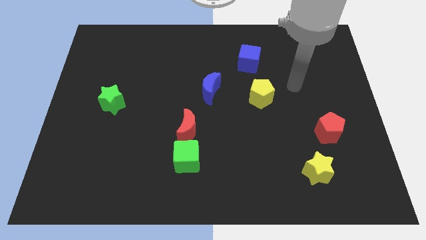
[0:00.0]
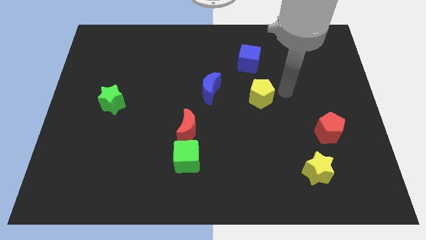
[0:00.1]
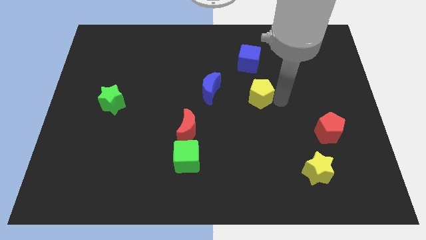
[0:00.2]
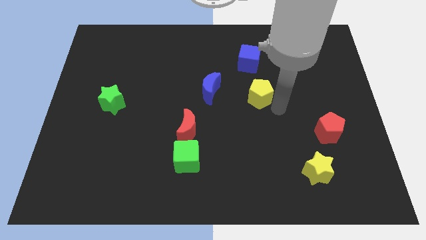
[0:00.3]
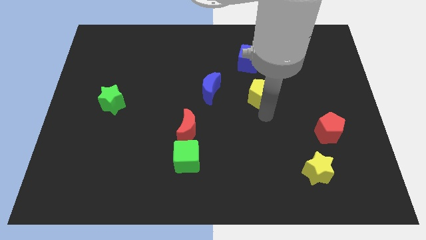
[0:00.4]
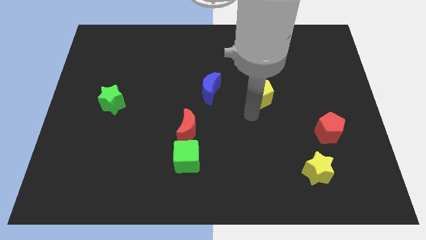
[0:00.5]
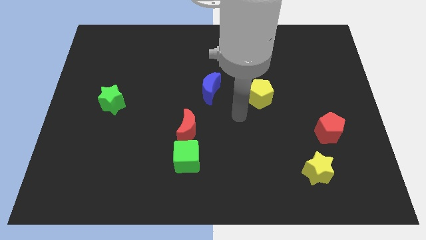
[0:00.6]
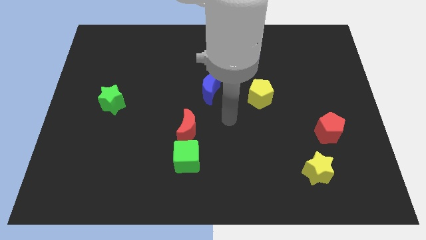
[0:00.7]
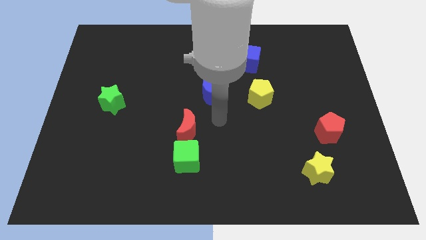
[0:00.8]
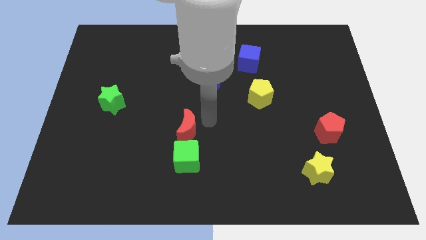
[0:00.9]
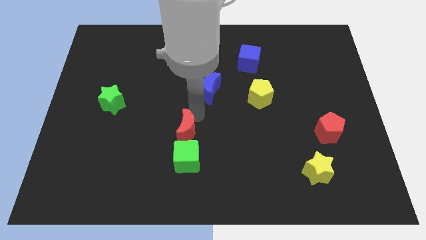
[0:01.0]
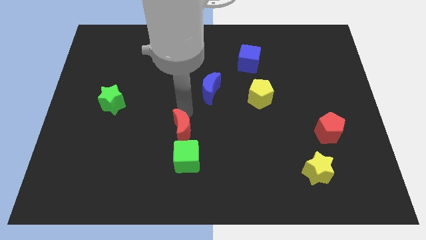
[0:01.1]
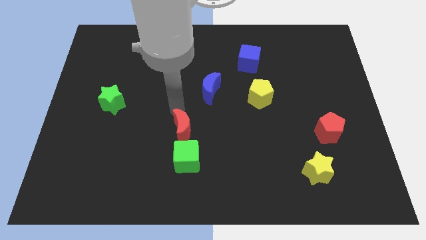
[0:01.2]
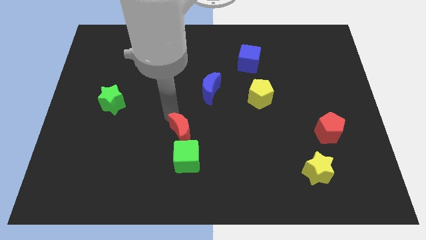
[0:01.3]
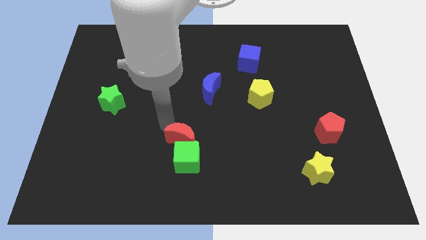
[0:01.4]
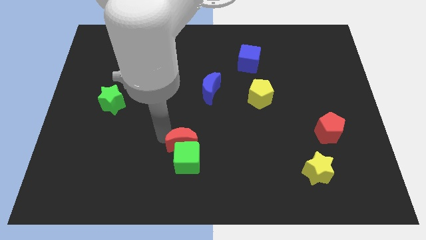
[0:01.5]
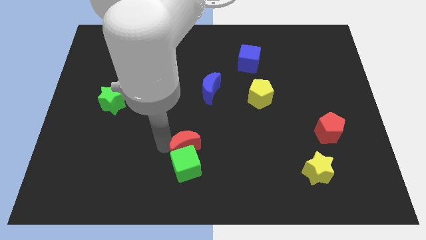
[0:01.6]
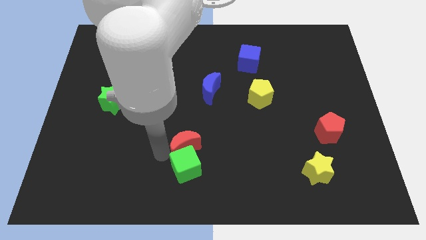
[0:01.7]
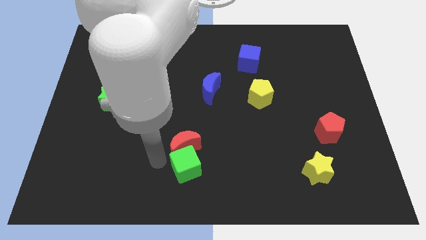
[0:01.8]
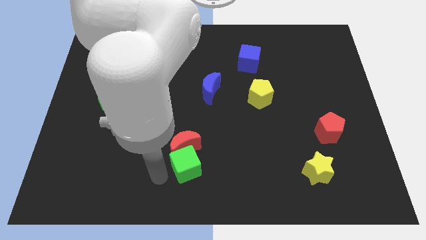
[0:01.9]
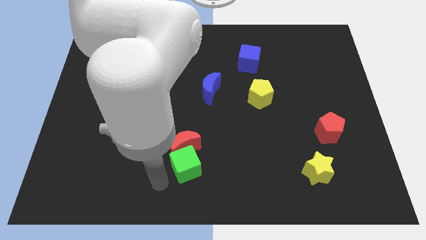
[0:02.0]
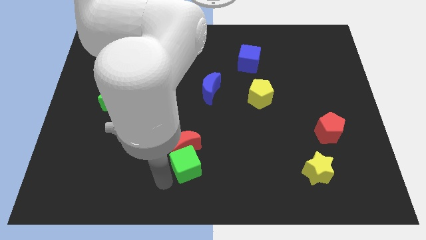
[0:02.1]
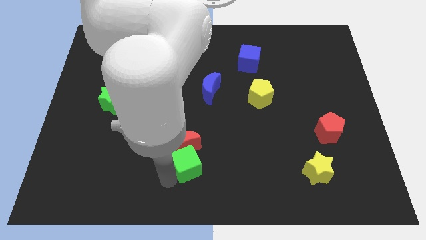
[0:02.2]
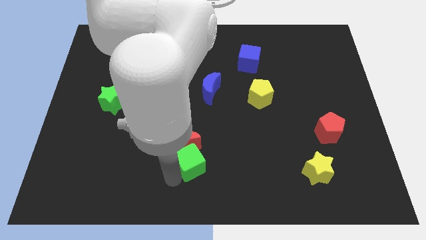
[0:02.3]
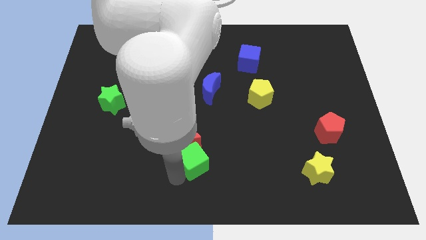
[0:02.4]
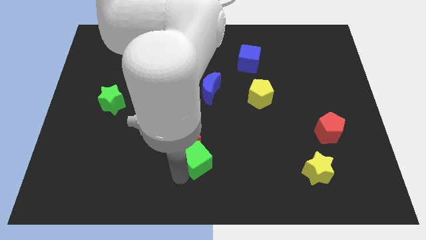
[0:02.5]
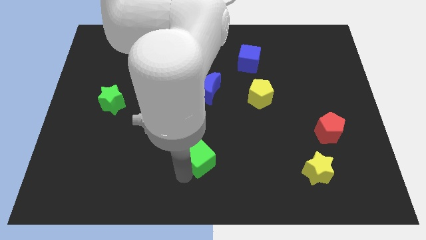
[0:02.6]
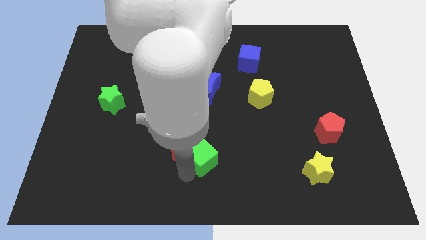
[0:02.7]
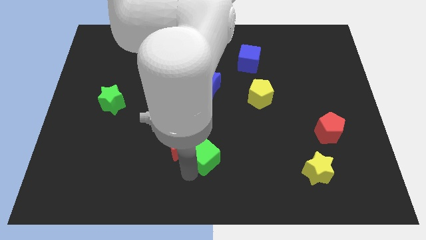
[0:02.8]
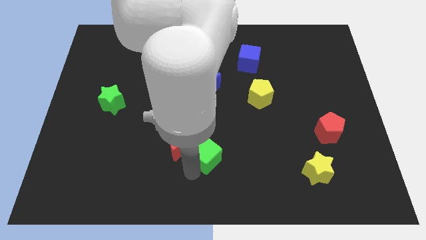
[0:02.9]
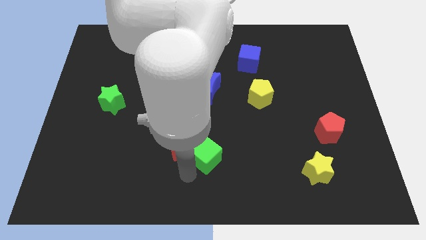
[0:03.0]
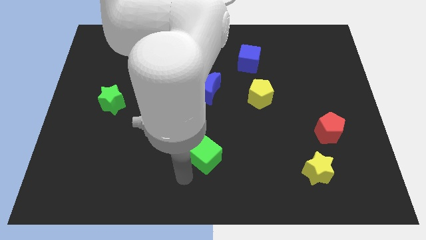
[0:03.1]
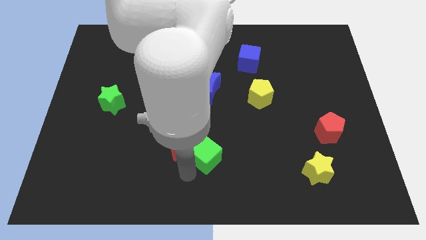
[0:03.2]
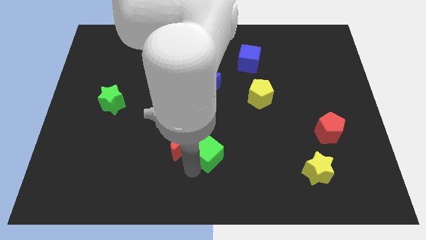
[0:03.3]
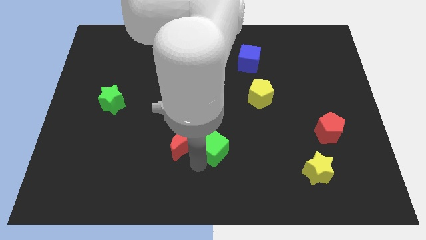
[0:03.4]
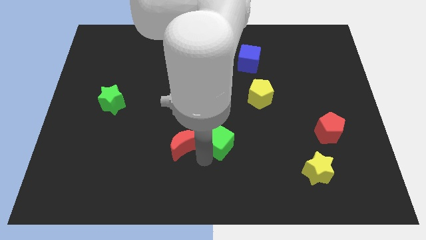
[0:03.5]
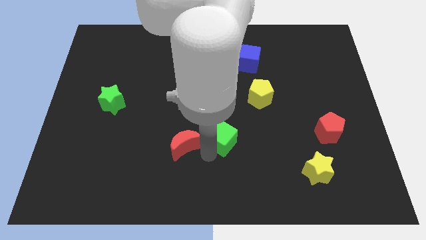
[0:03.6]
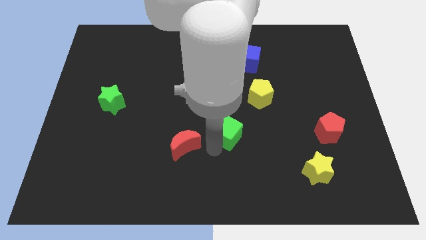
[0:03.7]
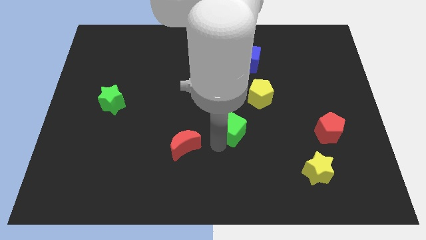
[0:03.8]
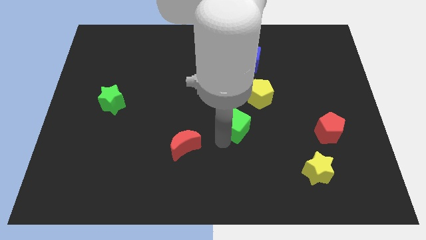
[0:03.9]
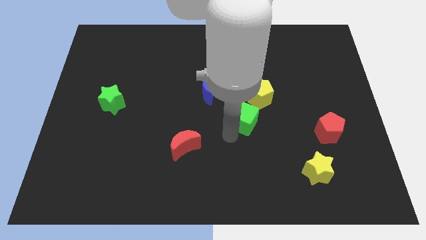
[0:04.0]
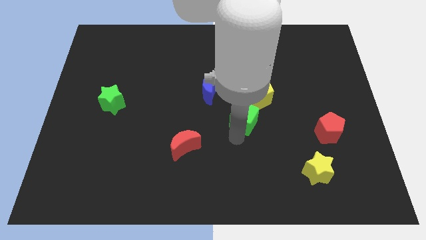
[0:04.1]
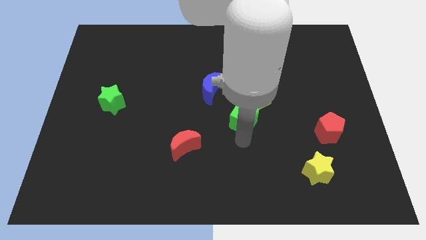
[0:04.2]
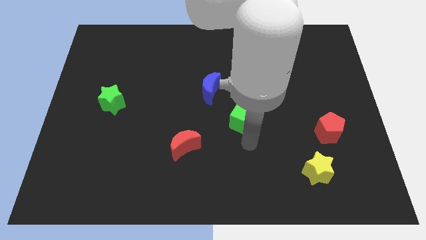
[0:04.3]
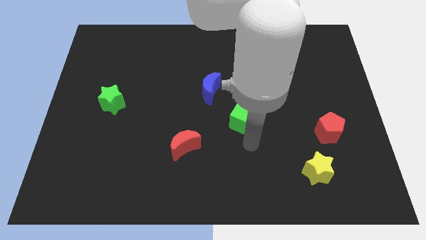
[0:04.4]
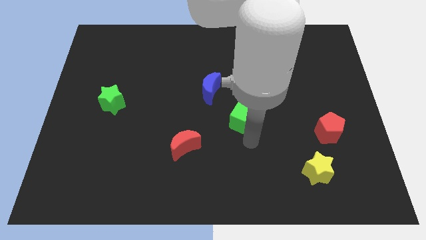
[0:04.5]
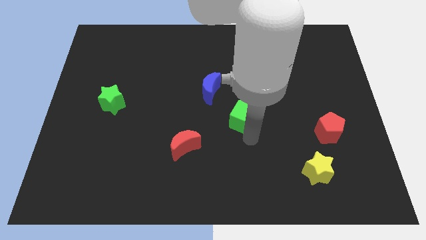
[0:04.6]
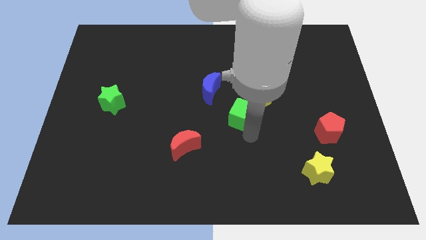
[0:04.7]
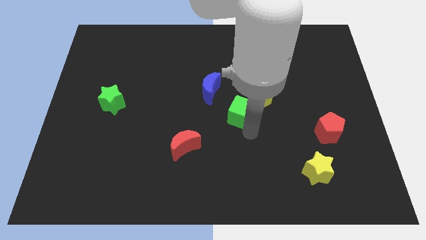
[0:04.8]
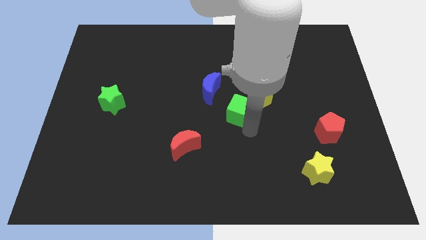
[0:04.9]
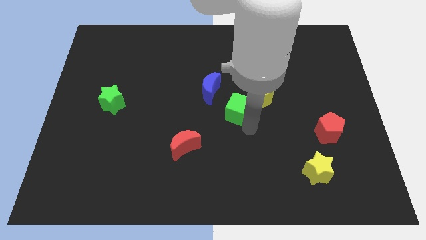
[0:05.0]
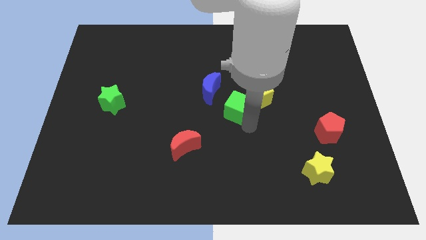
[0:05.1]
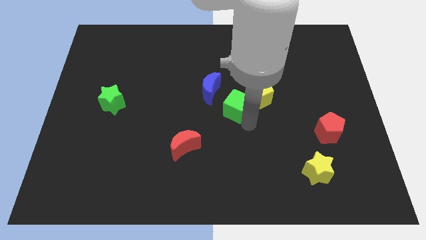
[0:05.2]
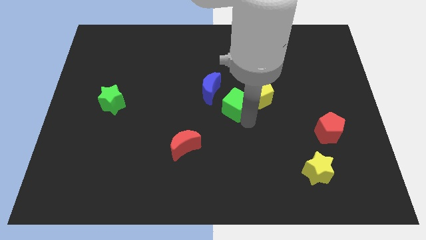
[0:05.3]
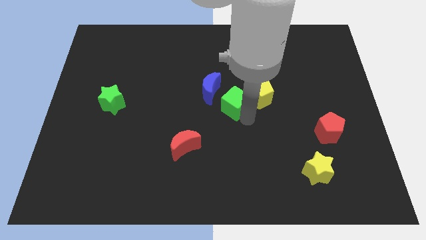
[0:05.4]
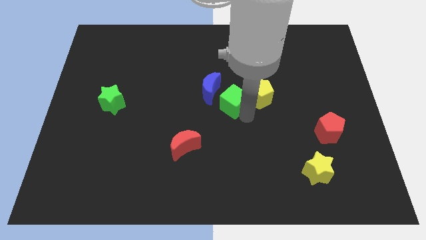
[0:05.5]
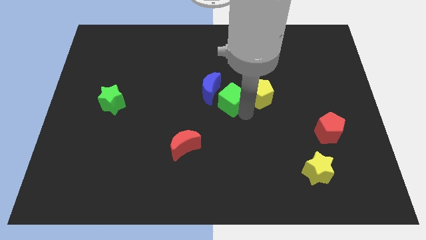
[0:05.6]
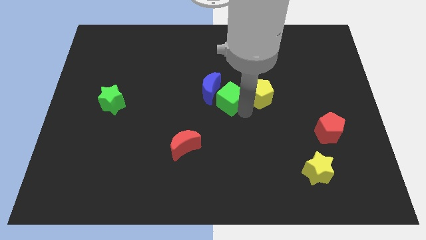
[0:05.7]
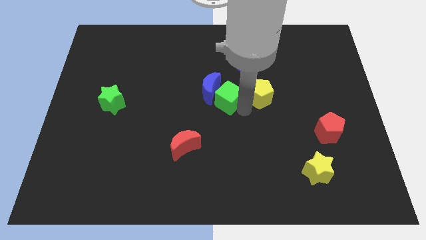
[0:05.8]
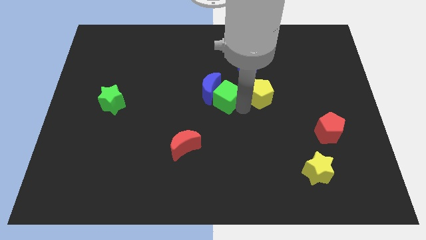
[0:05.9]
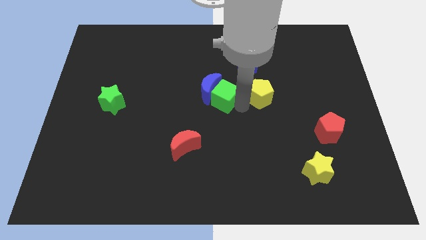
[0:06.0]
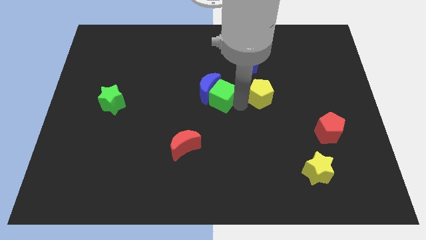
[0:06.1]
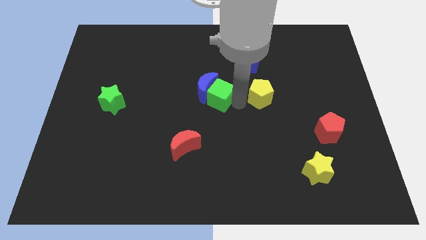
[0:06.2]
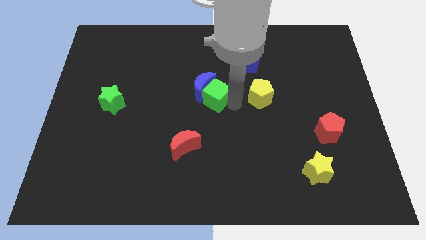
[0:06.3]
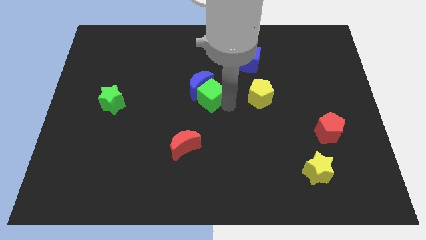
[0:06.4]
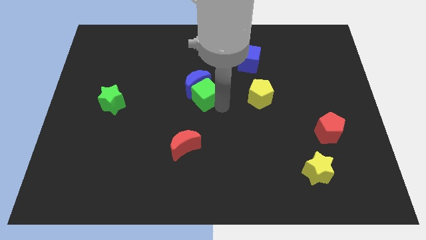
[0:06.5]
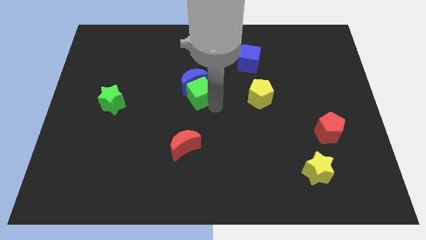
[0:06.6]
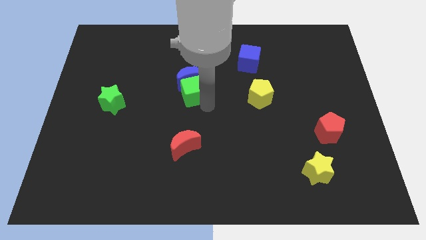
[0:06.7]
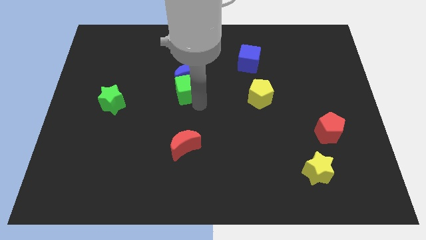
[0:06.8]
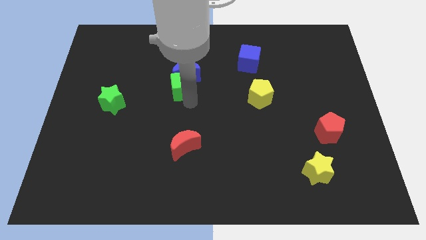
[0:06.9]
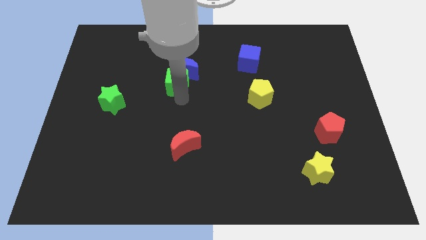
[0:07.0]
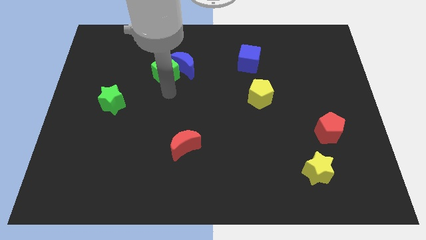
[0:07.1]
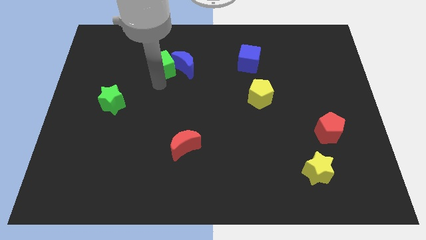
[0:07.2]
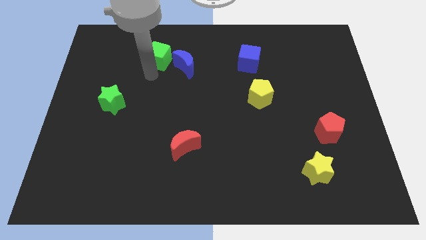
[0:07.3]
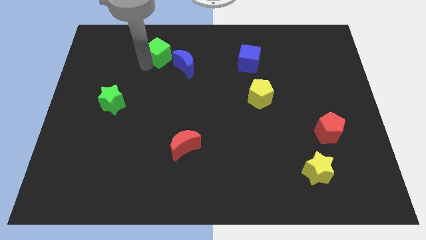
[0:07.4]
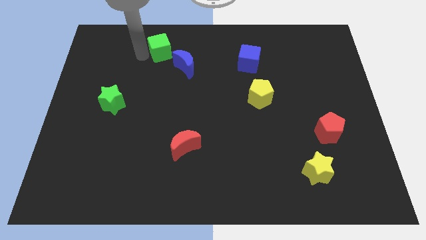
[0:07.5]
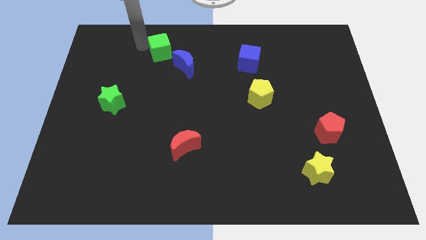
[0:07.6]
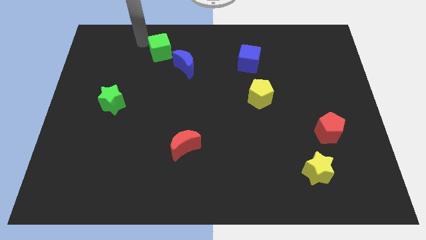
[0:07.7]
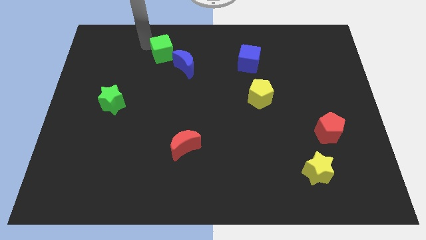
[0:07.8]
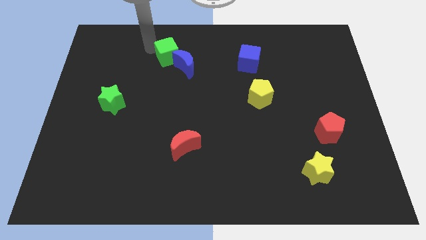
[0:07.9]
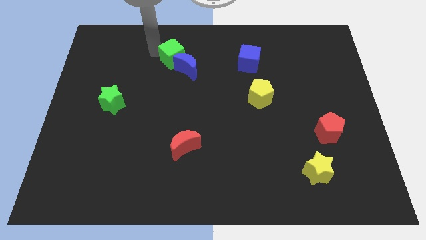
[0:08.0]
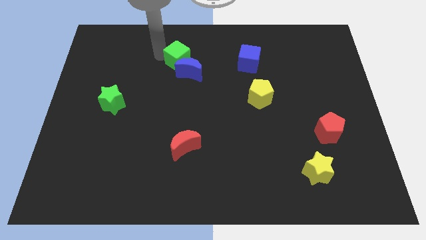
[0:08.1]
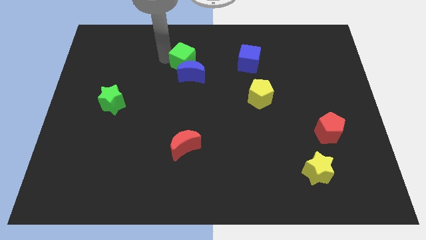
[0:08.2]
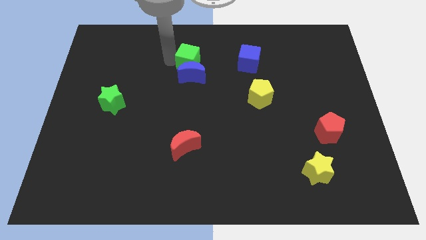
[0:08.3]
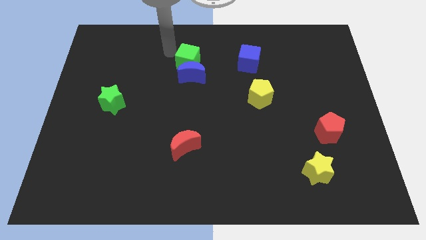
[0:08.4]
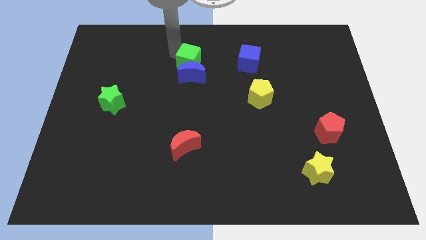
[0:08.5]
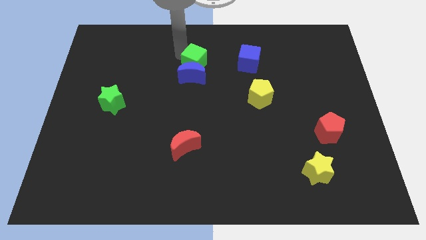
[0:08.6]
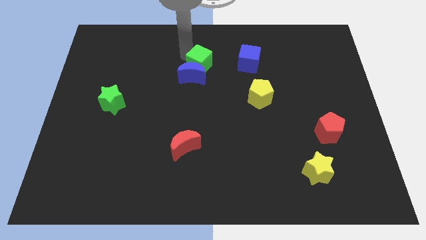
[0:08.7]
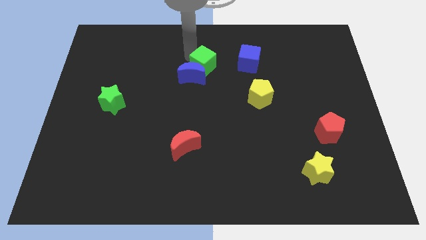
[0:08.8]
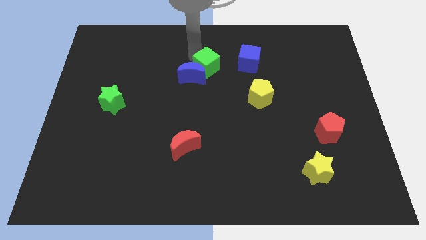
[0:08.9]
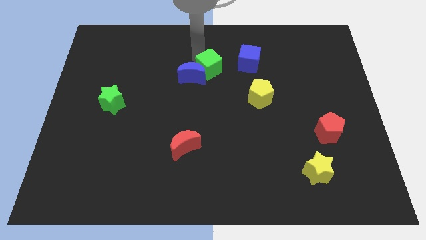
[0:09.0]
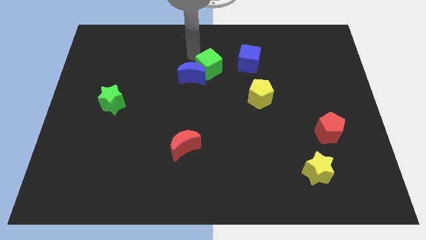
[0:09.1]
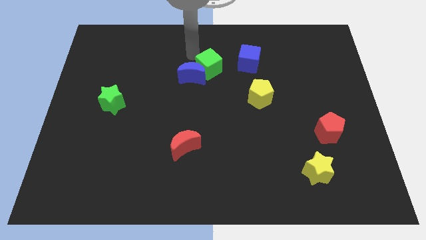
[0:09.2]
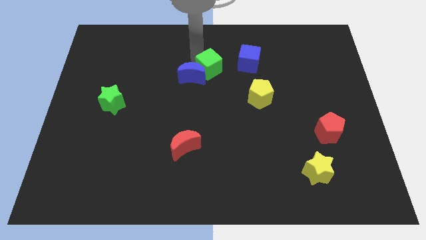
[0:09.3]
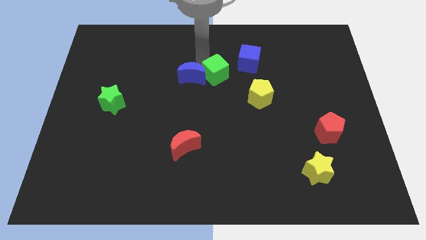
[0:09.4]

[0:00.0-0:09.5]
put the green cube to the bottom left side of the blue cube
